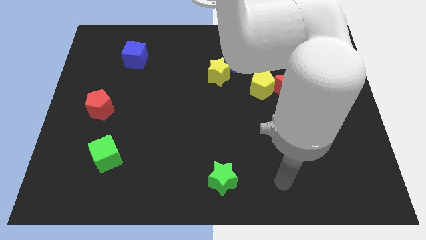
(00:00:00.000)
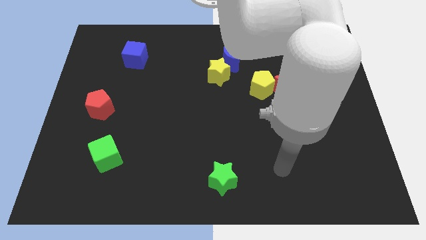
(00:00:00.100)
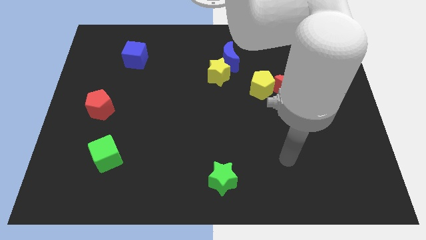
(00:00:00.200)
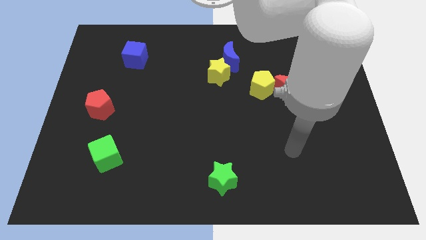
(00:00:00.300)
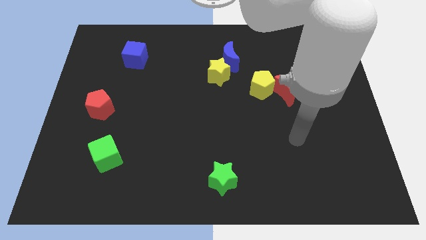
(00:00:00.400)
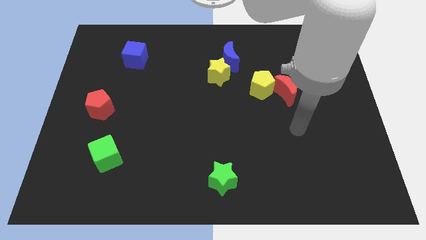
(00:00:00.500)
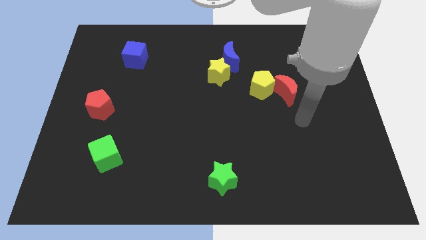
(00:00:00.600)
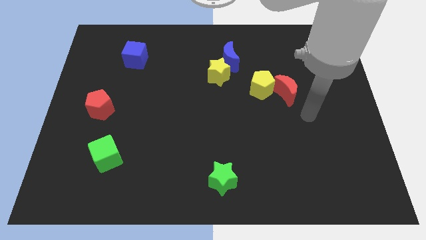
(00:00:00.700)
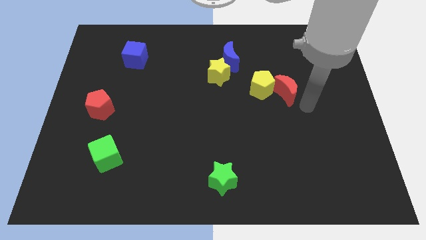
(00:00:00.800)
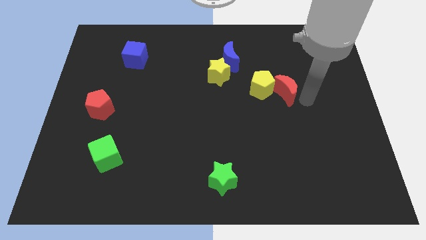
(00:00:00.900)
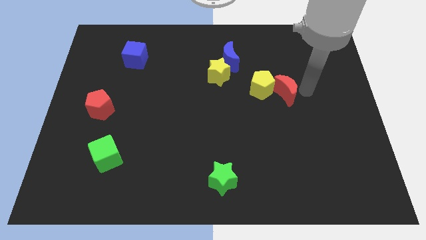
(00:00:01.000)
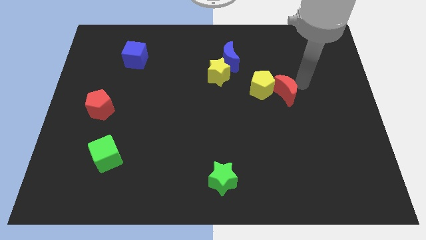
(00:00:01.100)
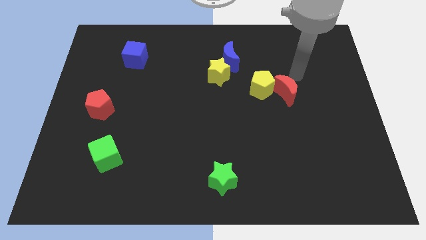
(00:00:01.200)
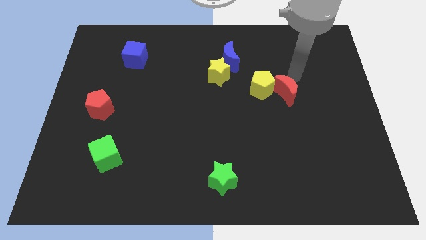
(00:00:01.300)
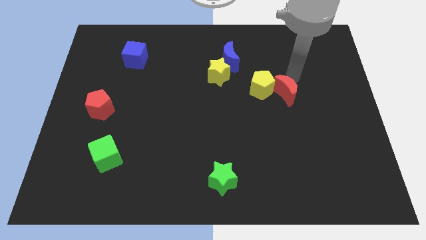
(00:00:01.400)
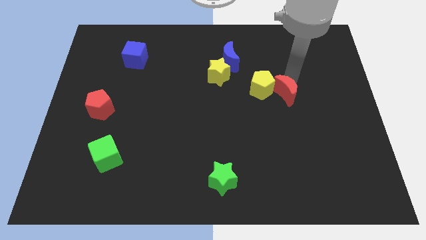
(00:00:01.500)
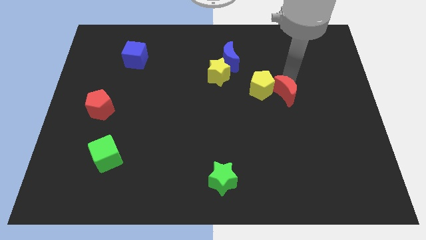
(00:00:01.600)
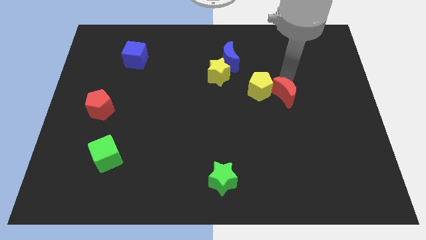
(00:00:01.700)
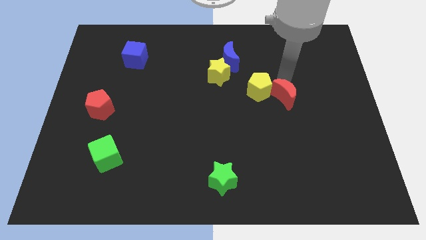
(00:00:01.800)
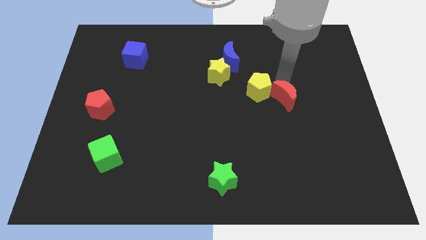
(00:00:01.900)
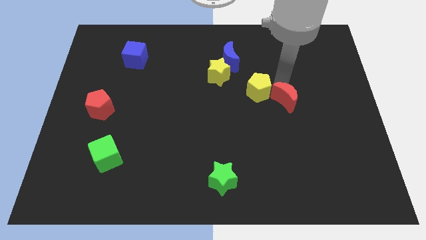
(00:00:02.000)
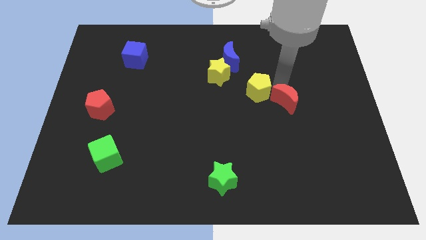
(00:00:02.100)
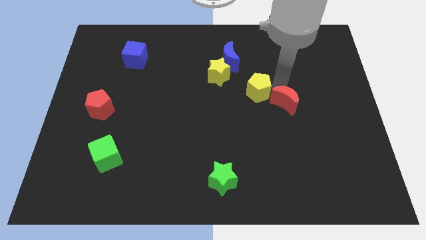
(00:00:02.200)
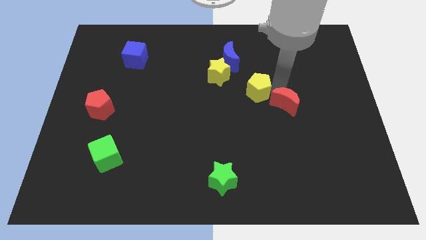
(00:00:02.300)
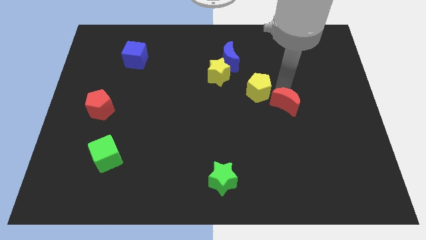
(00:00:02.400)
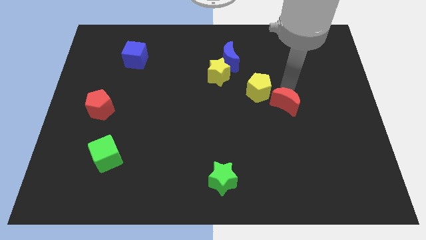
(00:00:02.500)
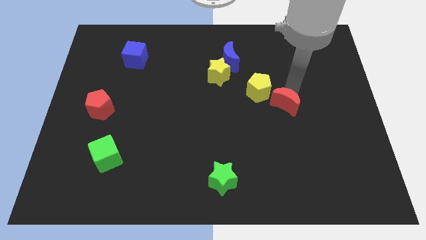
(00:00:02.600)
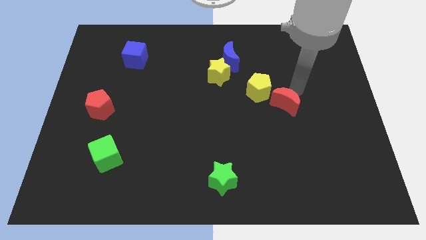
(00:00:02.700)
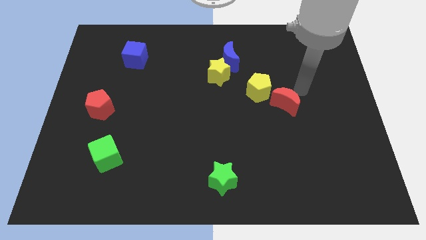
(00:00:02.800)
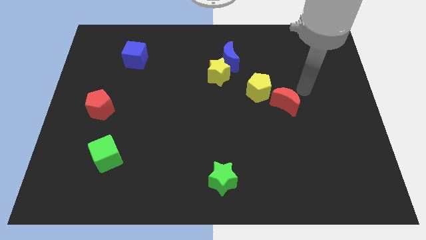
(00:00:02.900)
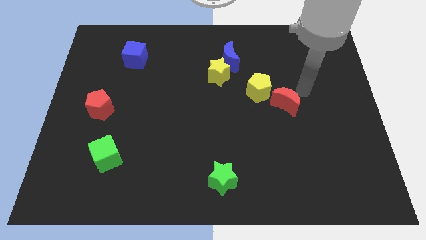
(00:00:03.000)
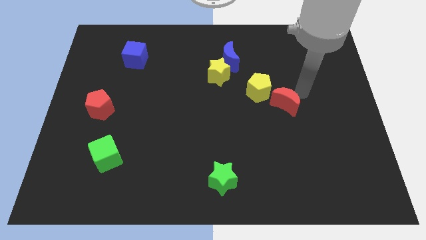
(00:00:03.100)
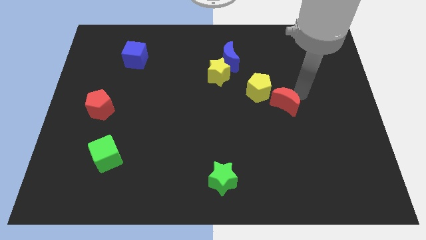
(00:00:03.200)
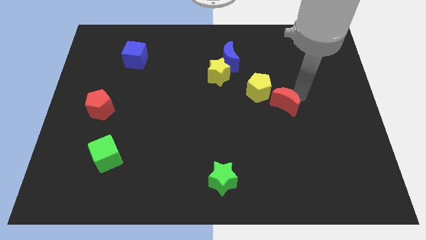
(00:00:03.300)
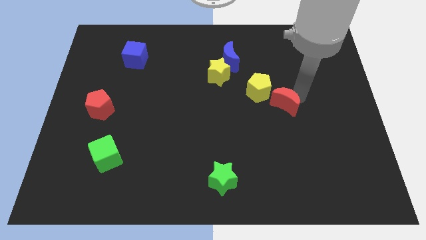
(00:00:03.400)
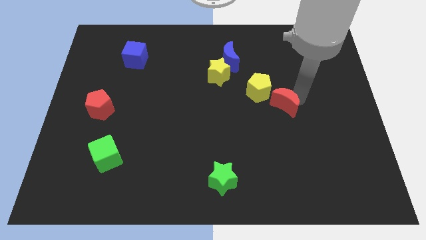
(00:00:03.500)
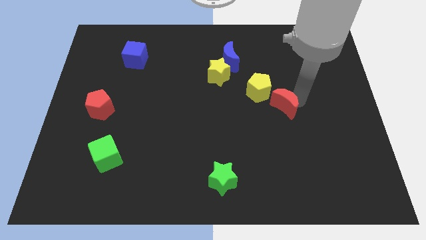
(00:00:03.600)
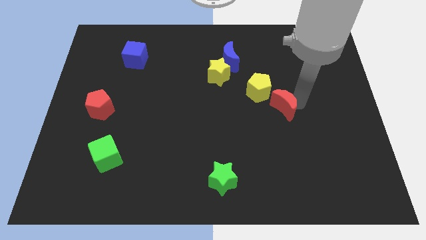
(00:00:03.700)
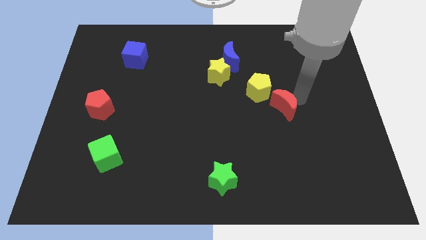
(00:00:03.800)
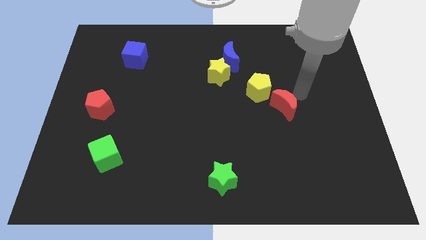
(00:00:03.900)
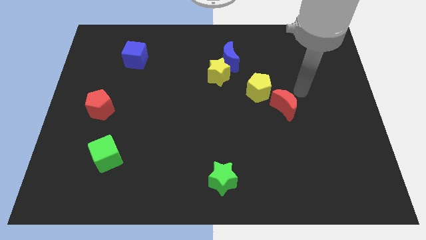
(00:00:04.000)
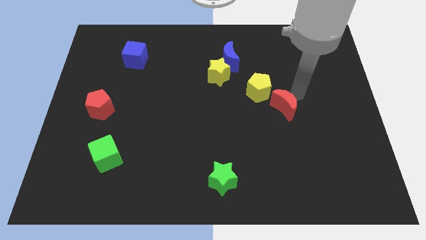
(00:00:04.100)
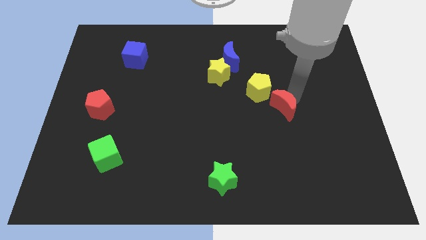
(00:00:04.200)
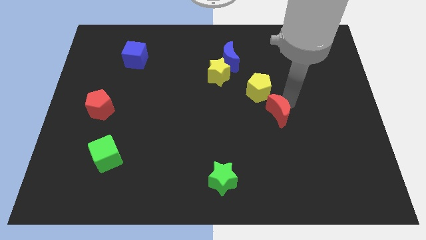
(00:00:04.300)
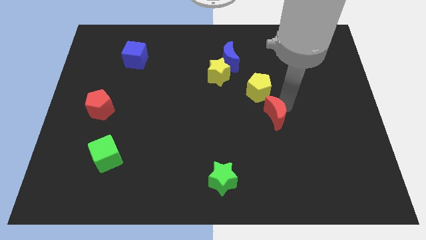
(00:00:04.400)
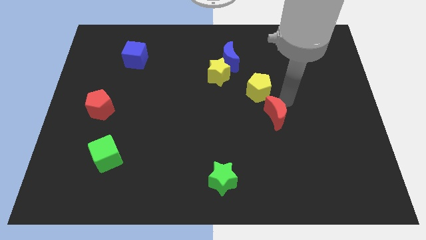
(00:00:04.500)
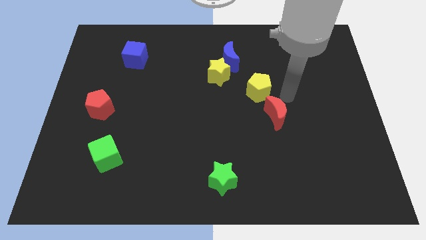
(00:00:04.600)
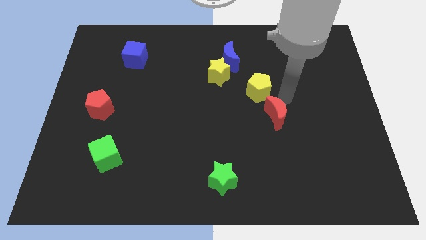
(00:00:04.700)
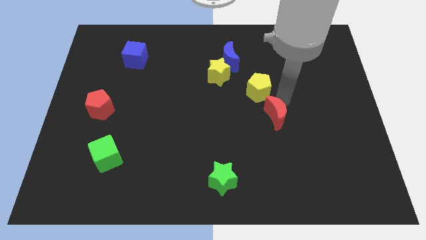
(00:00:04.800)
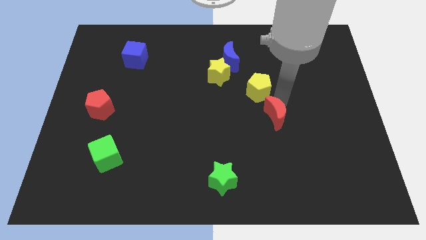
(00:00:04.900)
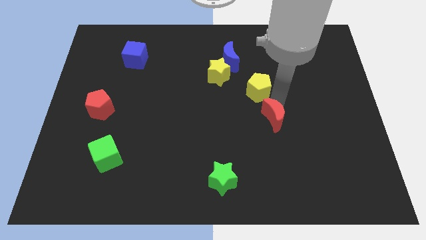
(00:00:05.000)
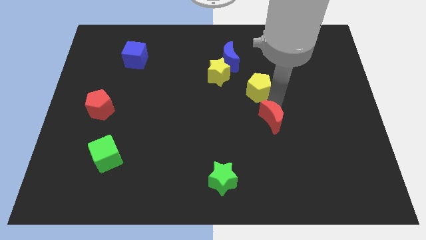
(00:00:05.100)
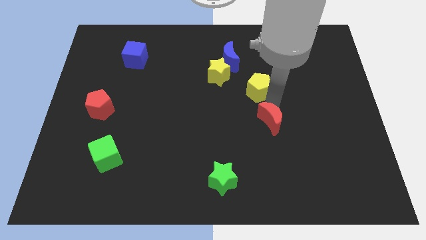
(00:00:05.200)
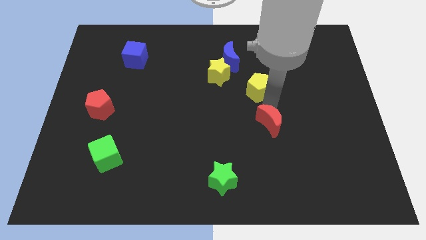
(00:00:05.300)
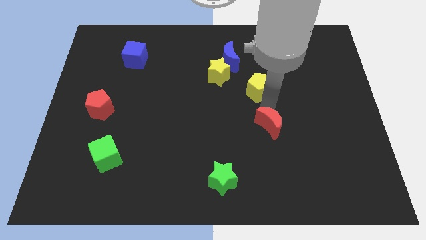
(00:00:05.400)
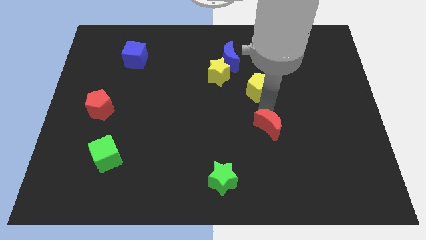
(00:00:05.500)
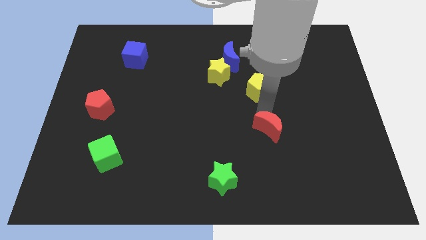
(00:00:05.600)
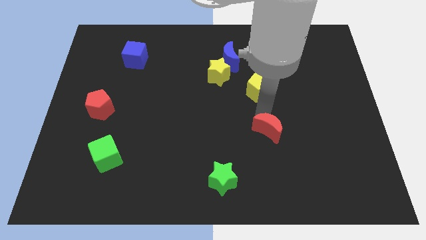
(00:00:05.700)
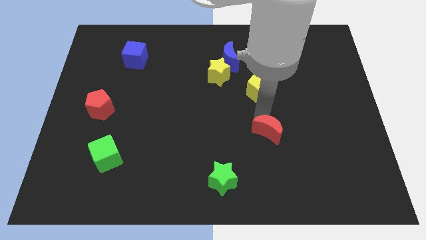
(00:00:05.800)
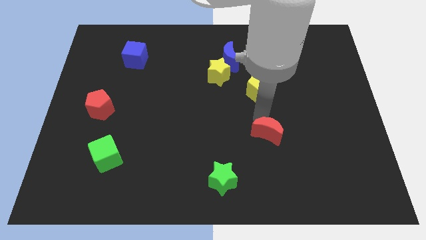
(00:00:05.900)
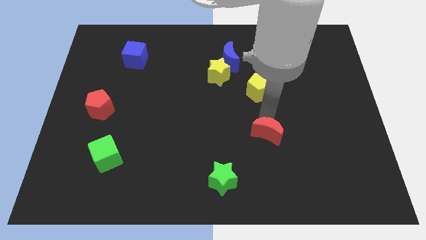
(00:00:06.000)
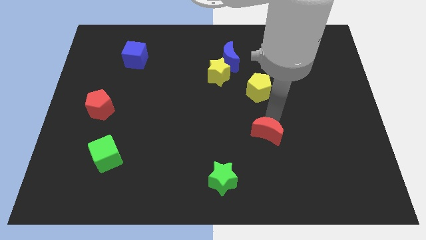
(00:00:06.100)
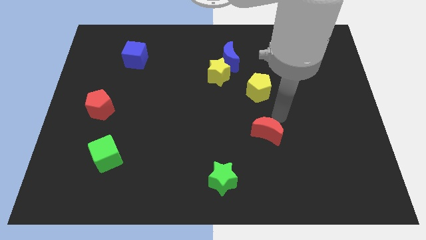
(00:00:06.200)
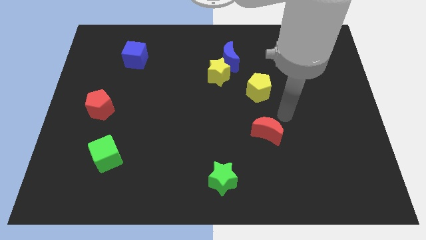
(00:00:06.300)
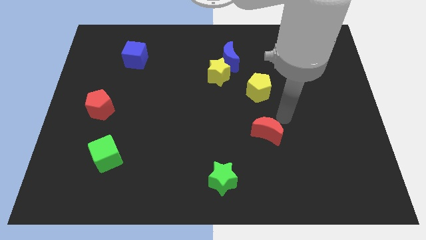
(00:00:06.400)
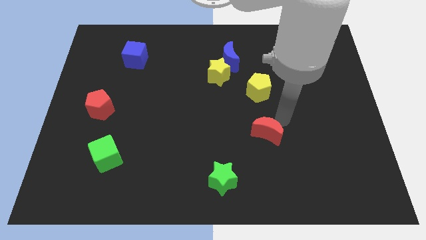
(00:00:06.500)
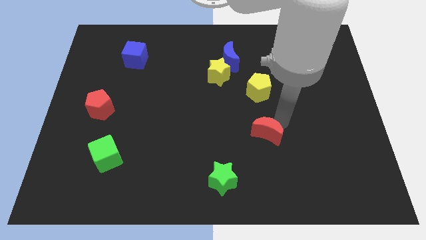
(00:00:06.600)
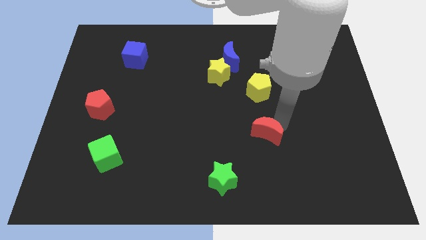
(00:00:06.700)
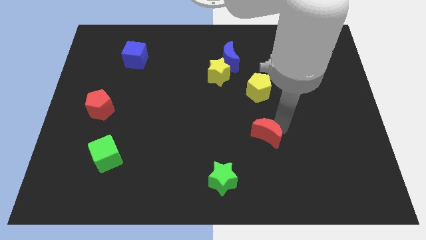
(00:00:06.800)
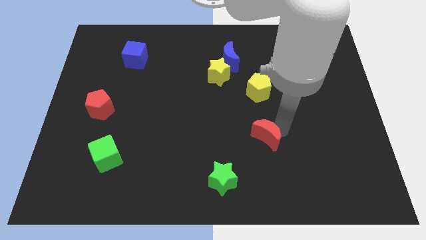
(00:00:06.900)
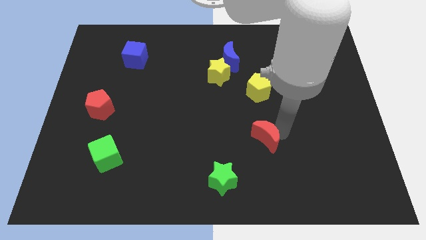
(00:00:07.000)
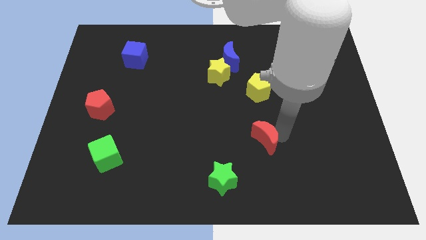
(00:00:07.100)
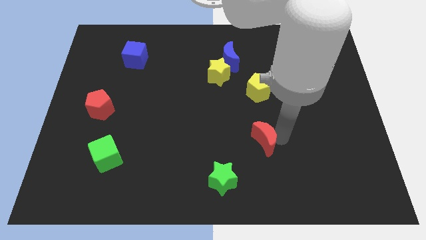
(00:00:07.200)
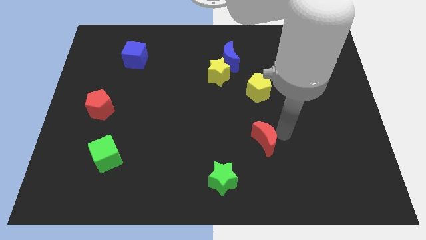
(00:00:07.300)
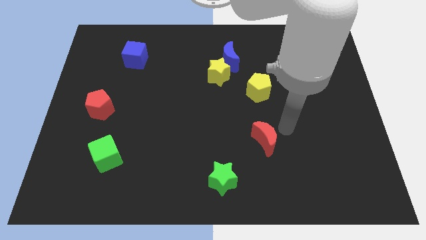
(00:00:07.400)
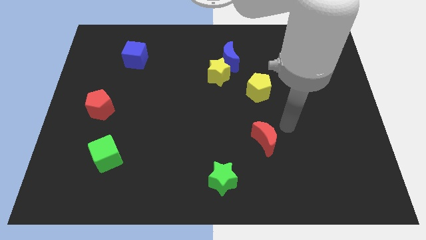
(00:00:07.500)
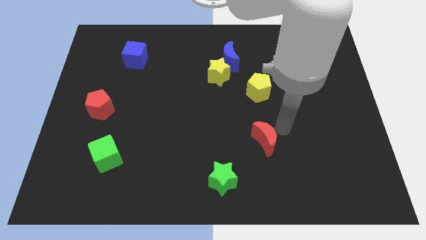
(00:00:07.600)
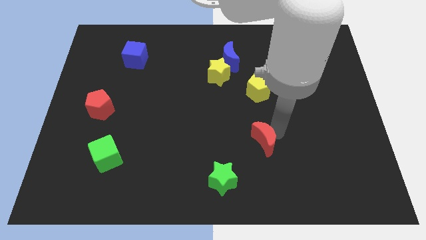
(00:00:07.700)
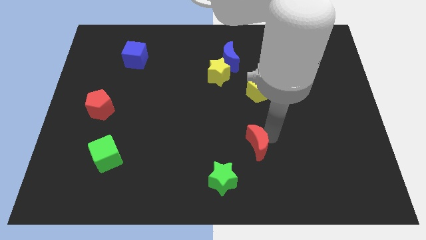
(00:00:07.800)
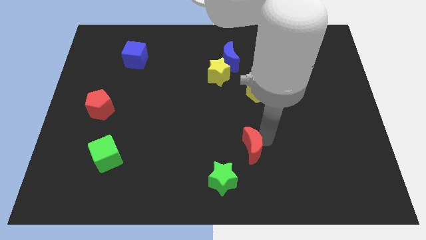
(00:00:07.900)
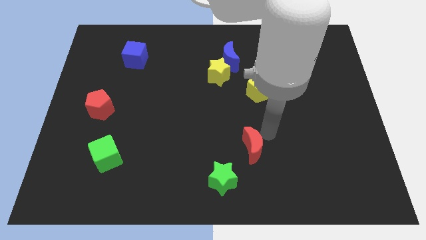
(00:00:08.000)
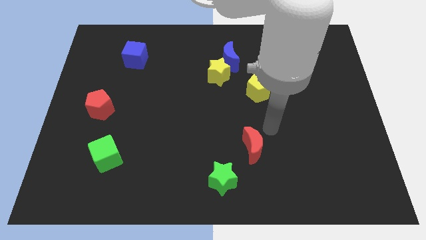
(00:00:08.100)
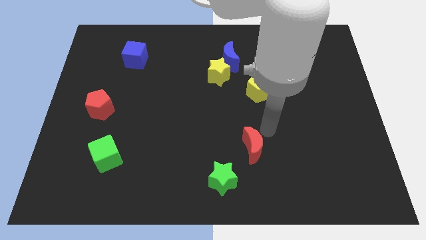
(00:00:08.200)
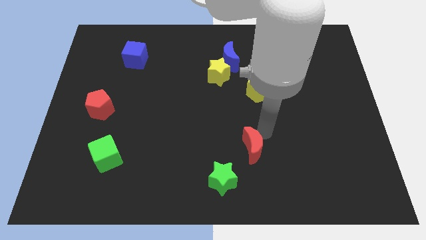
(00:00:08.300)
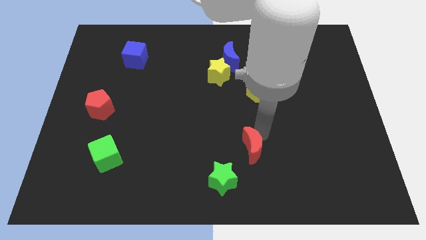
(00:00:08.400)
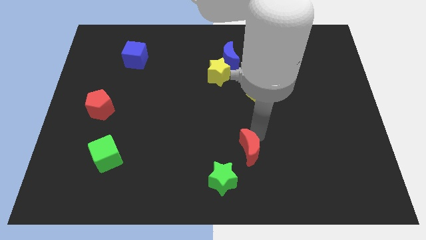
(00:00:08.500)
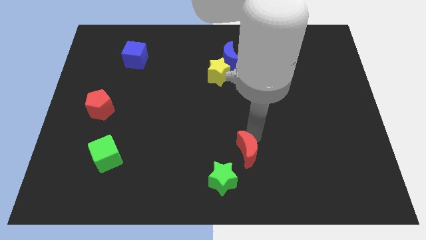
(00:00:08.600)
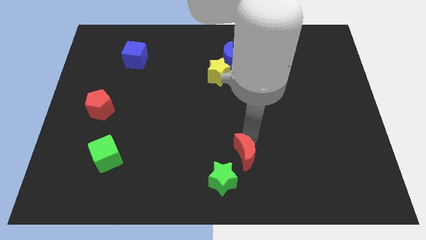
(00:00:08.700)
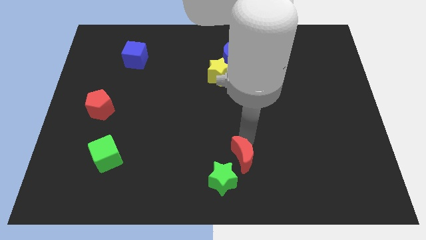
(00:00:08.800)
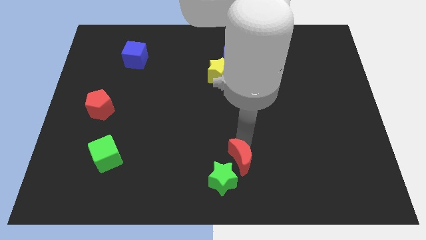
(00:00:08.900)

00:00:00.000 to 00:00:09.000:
move the red moon close to the green star
